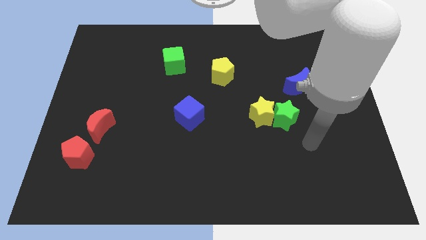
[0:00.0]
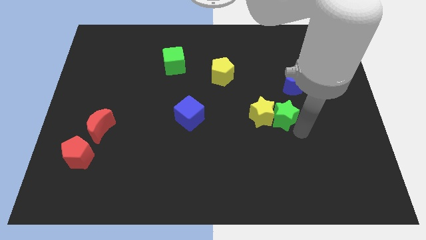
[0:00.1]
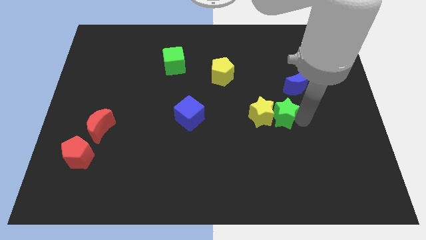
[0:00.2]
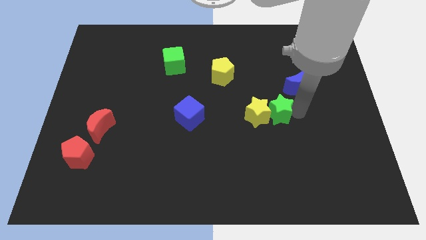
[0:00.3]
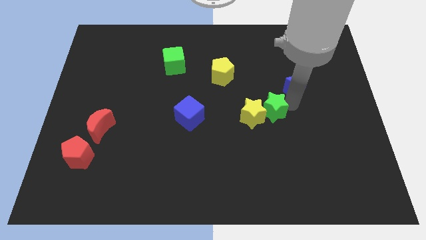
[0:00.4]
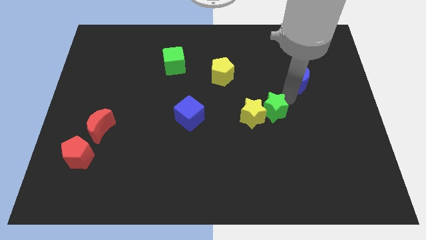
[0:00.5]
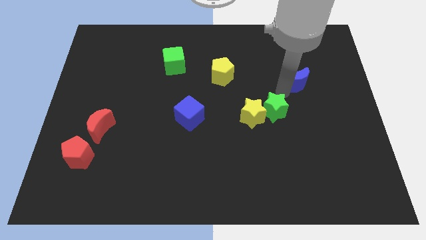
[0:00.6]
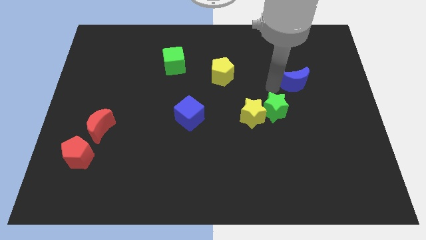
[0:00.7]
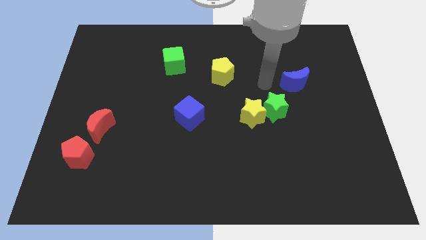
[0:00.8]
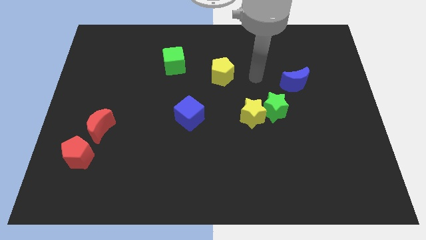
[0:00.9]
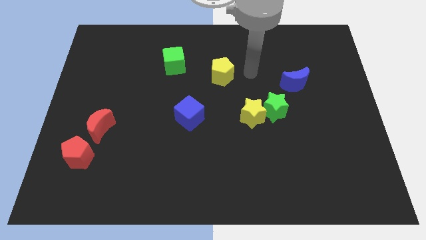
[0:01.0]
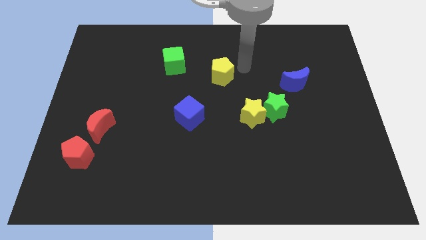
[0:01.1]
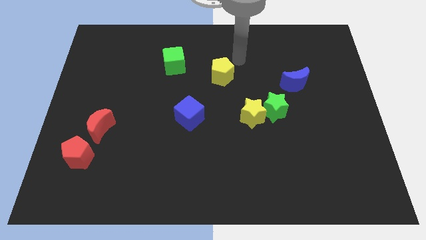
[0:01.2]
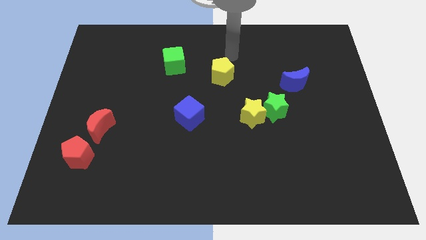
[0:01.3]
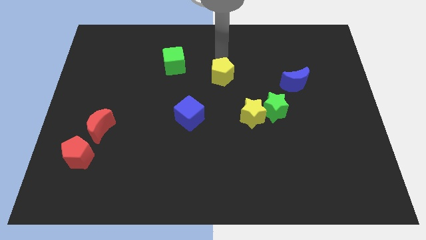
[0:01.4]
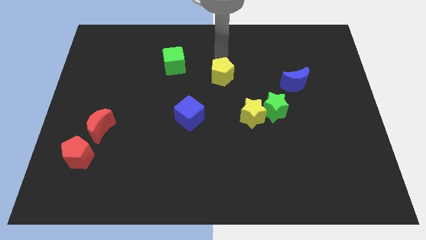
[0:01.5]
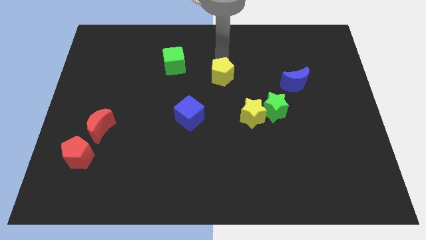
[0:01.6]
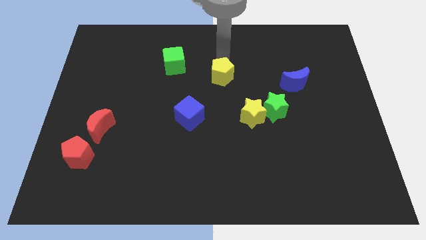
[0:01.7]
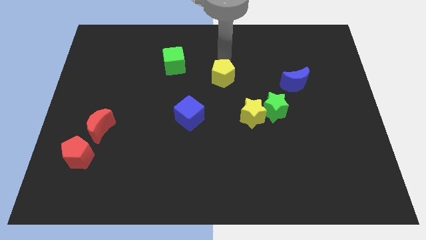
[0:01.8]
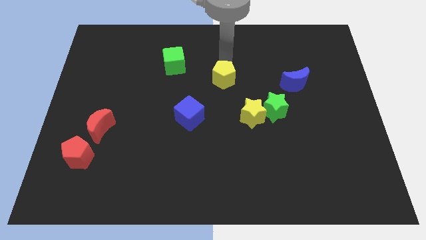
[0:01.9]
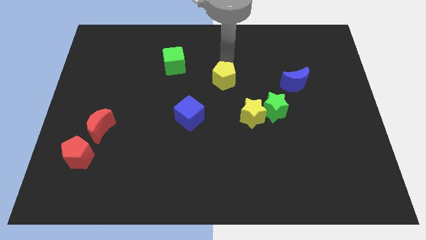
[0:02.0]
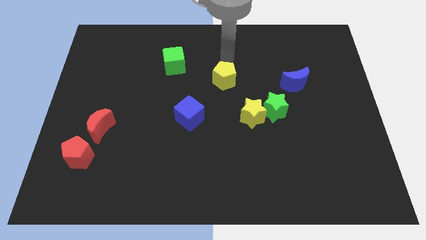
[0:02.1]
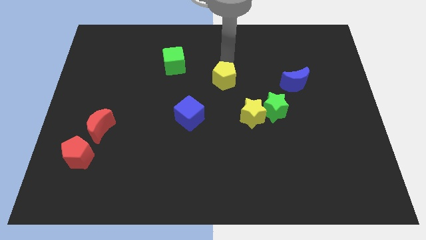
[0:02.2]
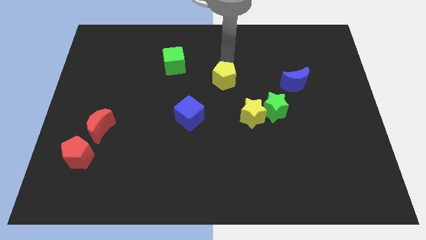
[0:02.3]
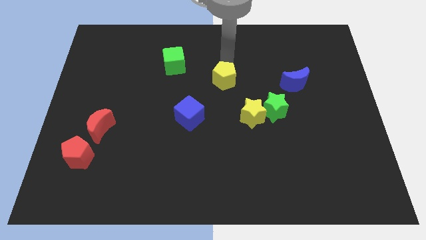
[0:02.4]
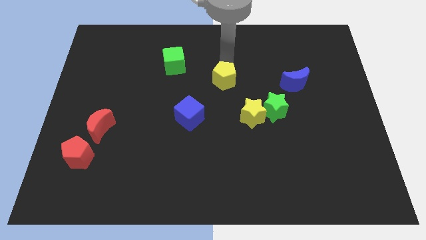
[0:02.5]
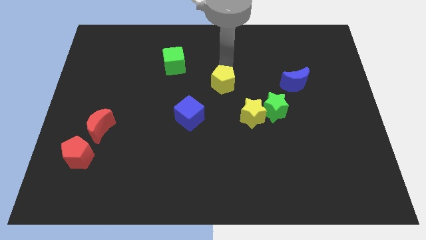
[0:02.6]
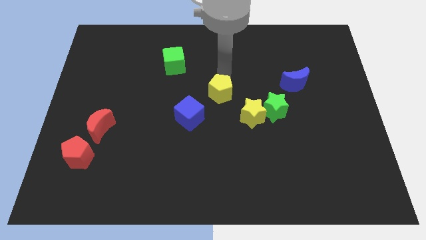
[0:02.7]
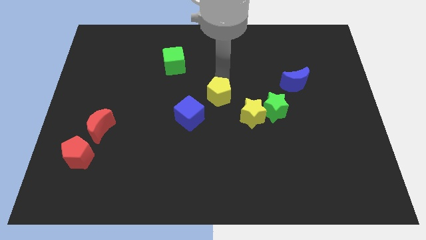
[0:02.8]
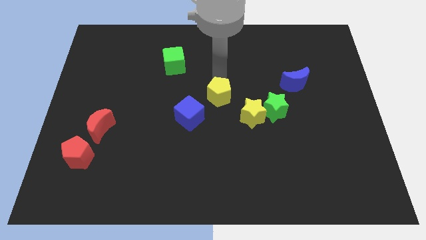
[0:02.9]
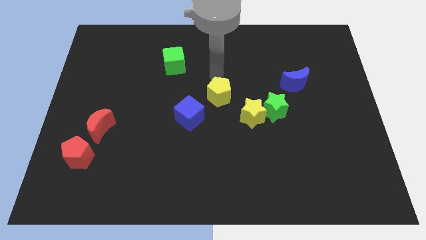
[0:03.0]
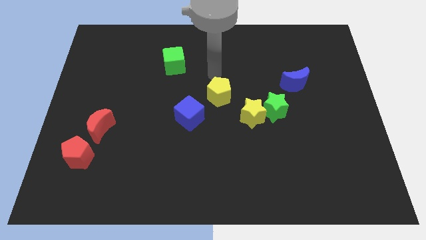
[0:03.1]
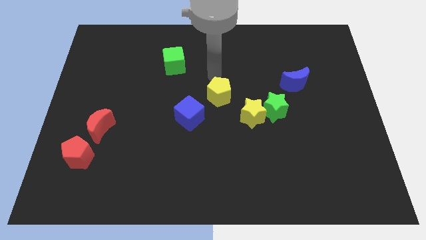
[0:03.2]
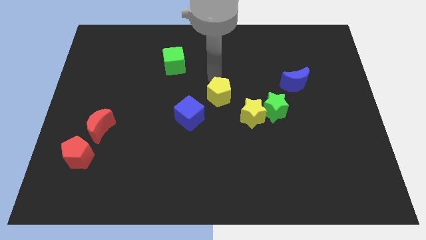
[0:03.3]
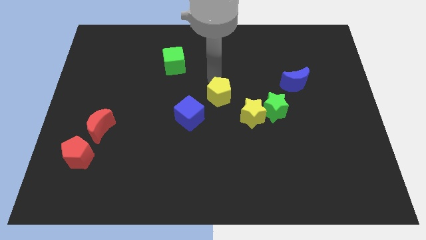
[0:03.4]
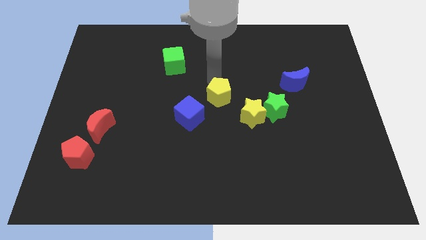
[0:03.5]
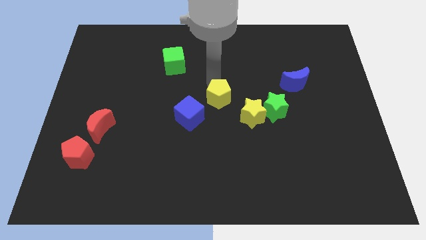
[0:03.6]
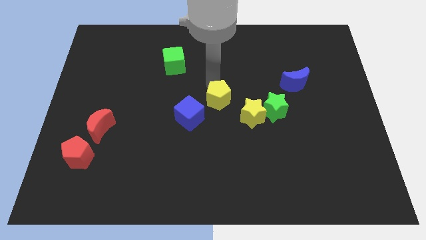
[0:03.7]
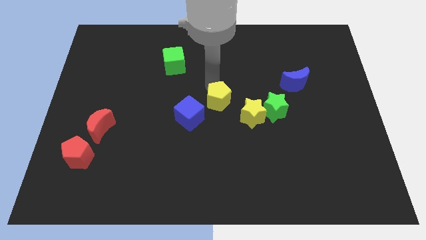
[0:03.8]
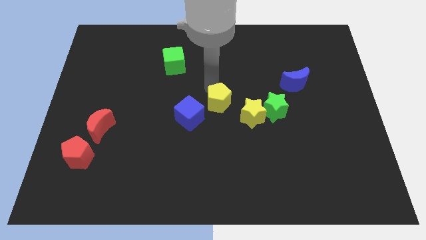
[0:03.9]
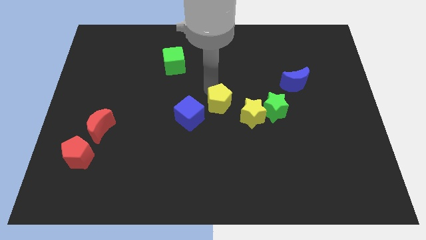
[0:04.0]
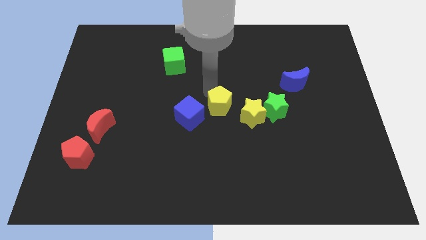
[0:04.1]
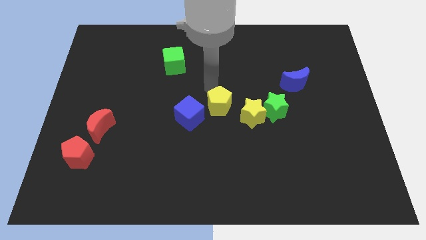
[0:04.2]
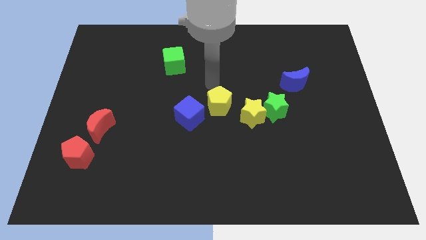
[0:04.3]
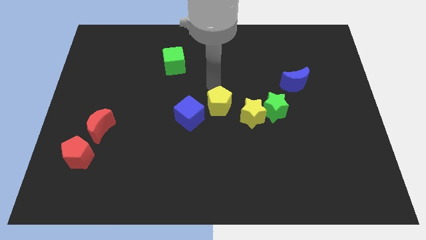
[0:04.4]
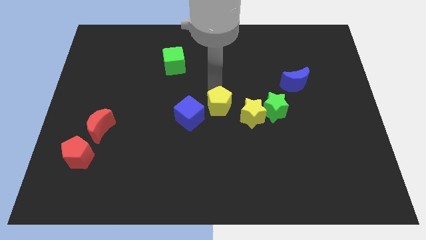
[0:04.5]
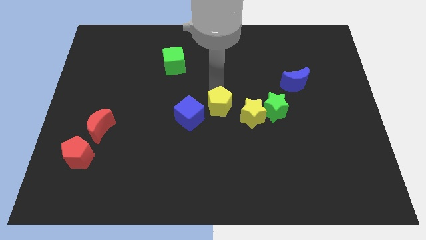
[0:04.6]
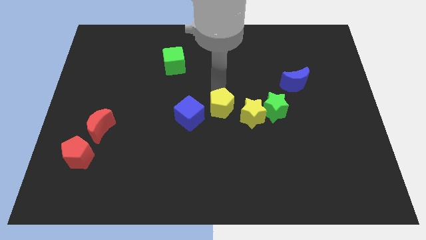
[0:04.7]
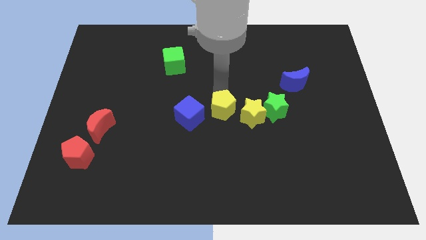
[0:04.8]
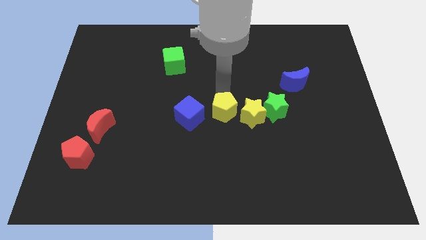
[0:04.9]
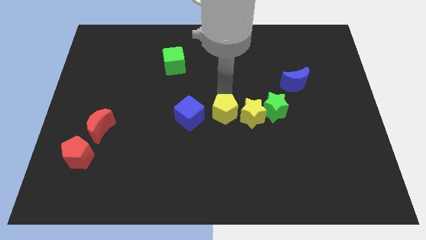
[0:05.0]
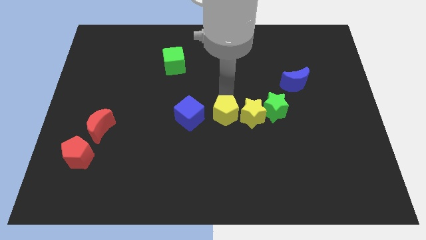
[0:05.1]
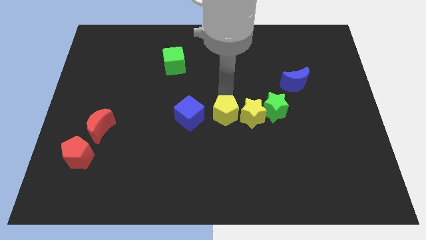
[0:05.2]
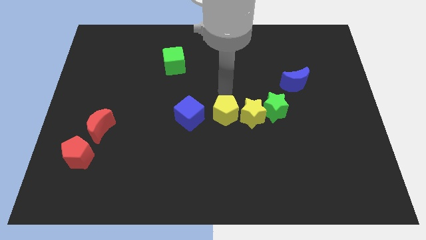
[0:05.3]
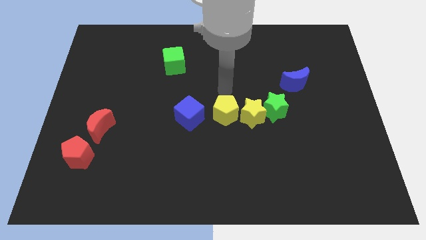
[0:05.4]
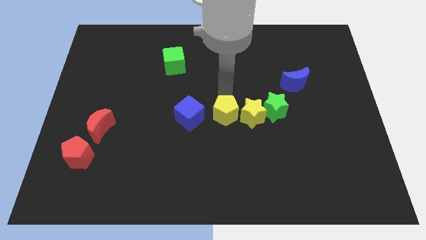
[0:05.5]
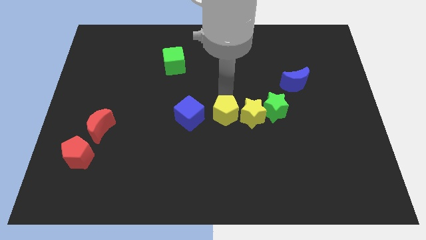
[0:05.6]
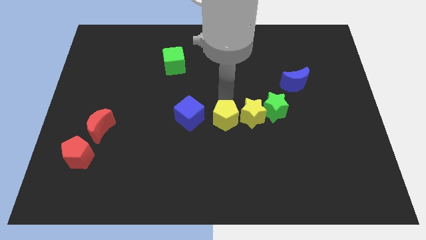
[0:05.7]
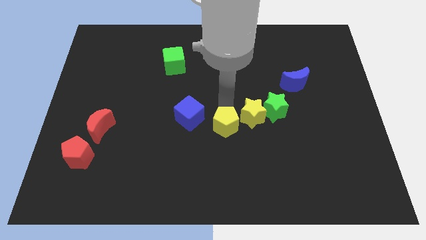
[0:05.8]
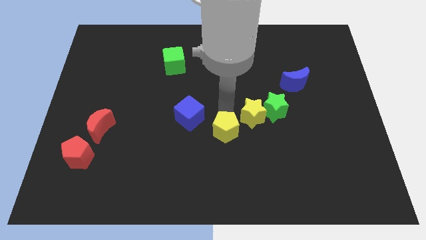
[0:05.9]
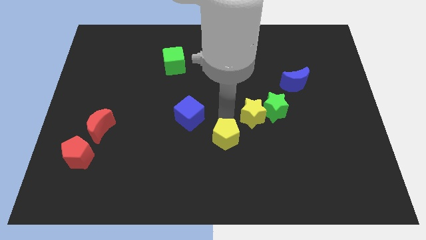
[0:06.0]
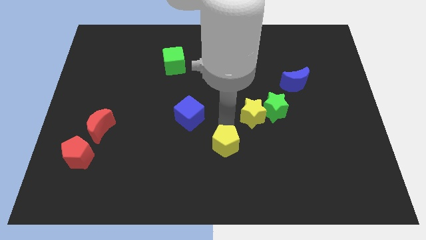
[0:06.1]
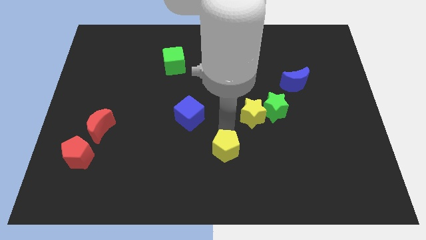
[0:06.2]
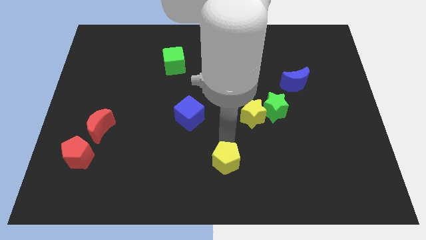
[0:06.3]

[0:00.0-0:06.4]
push the yellow pentagon to the bottom
